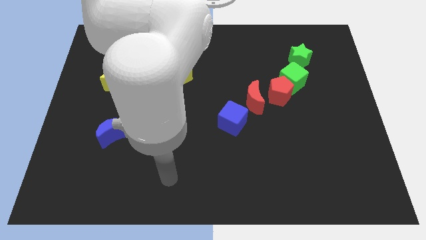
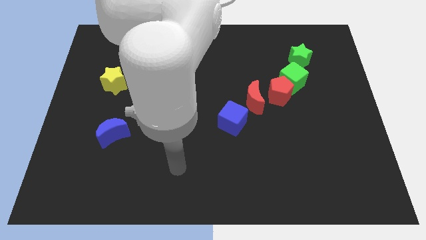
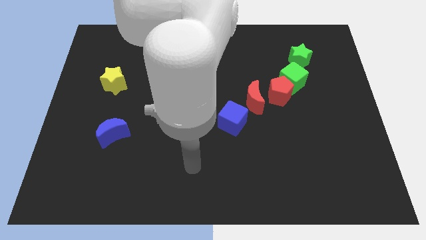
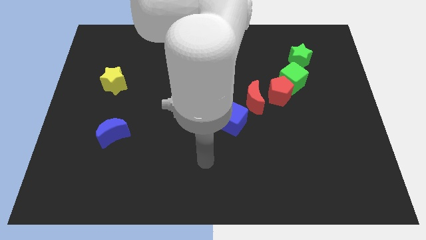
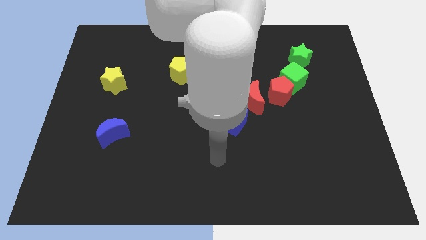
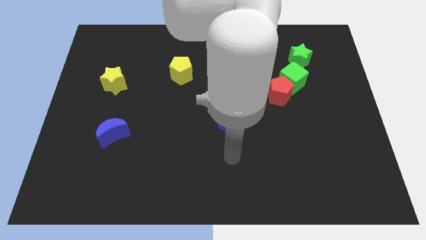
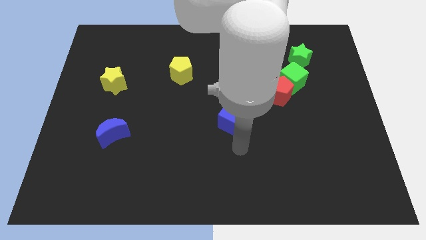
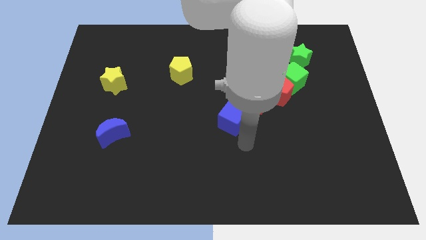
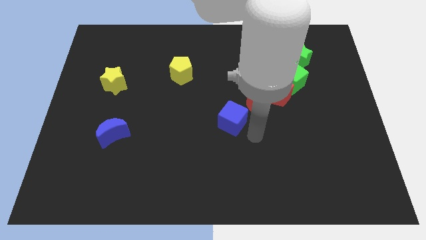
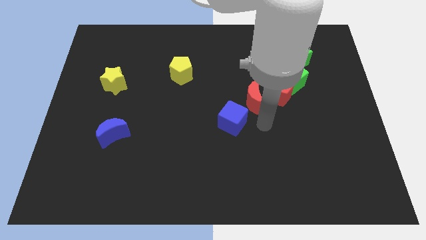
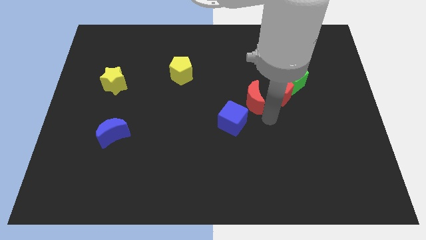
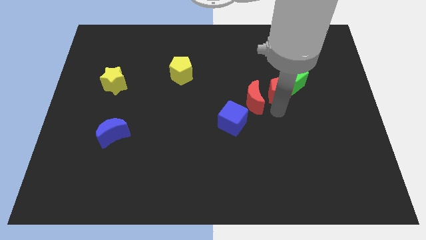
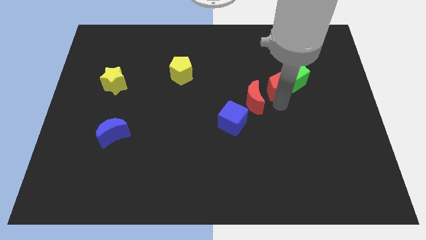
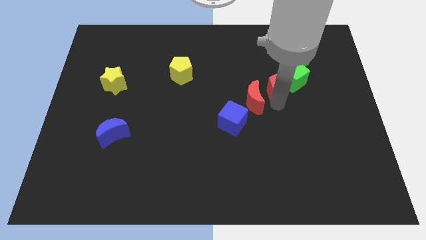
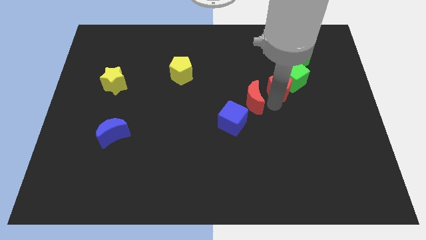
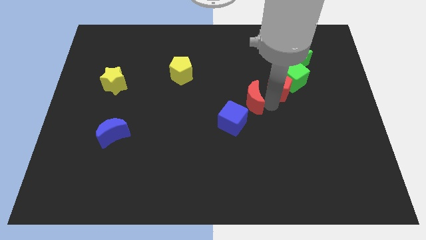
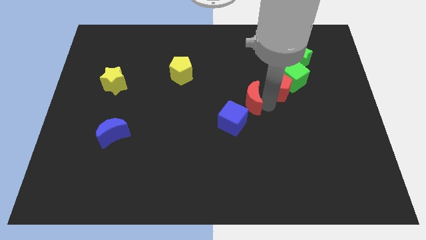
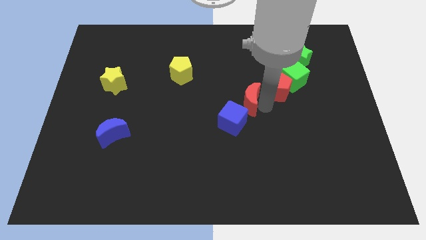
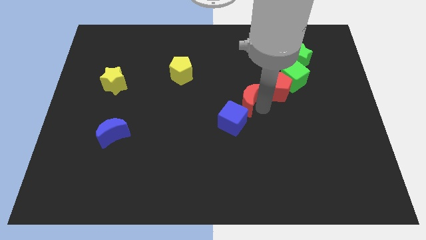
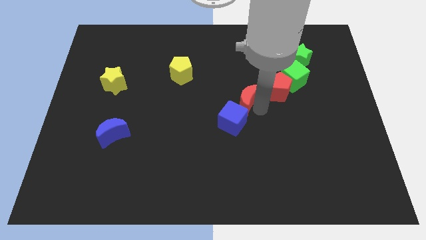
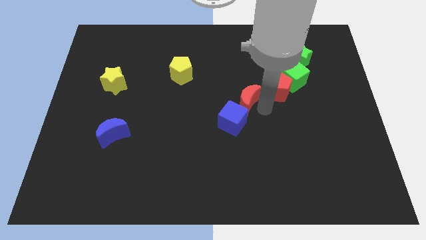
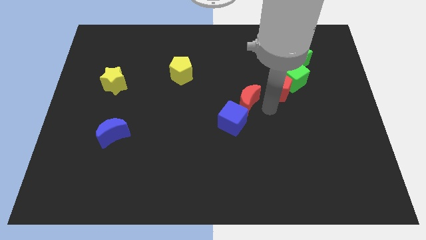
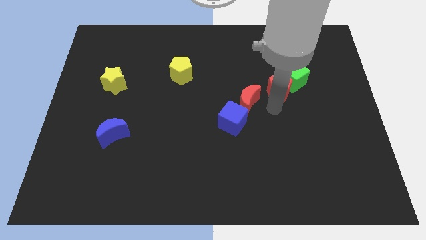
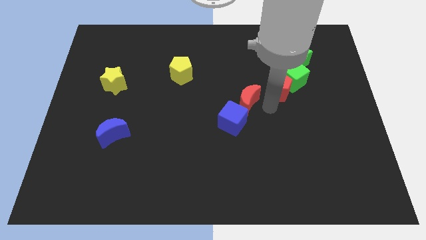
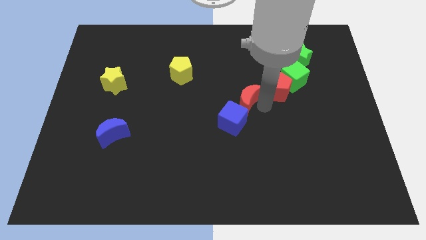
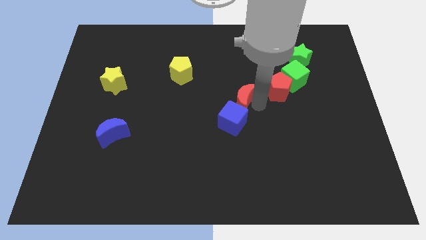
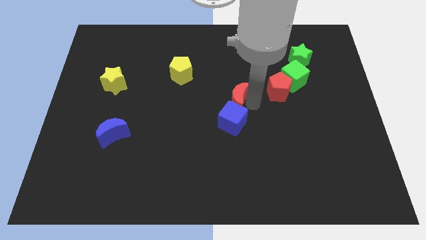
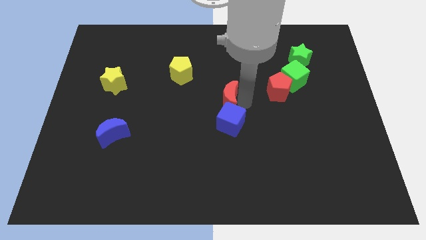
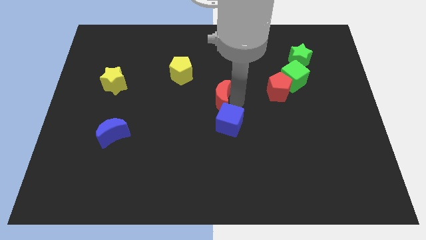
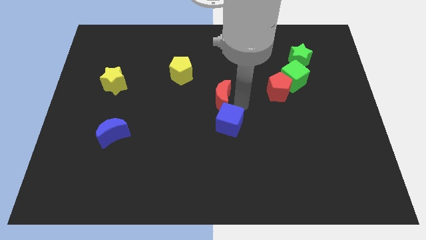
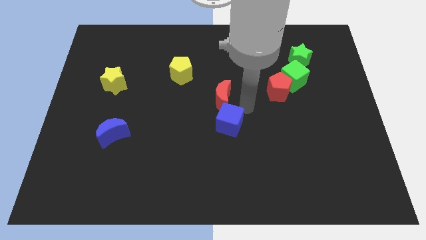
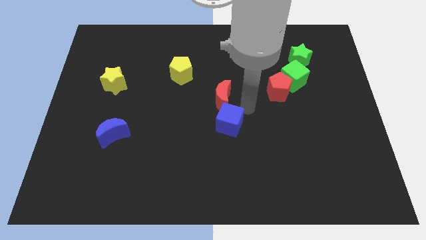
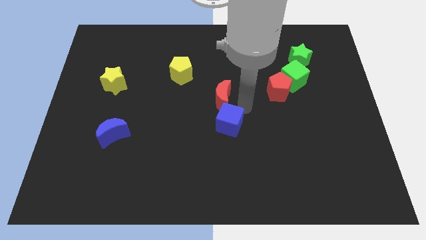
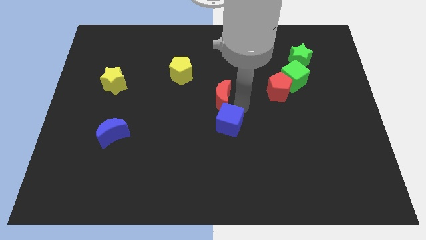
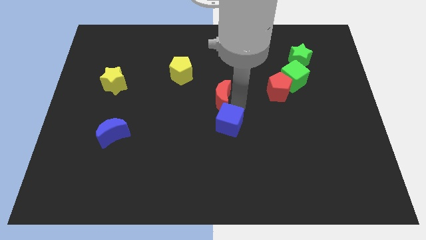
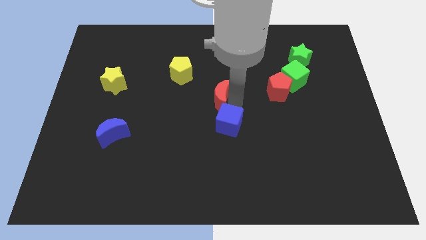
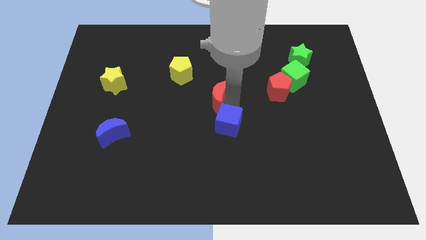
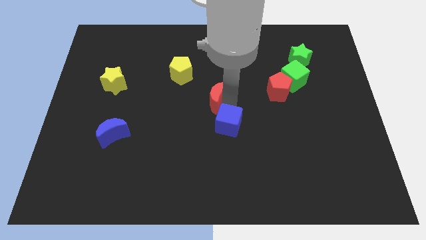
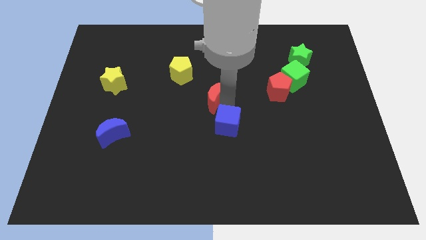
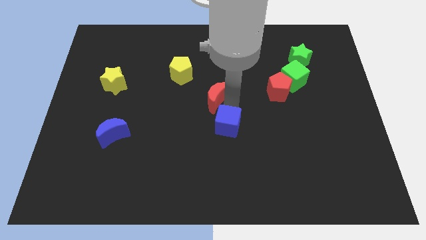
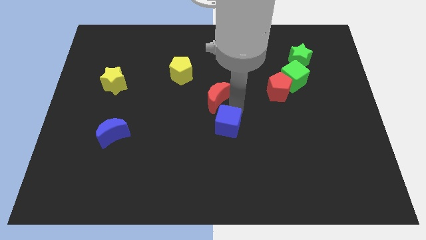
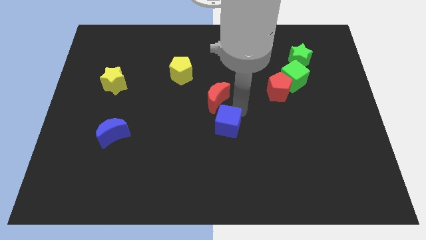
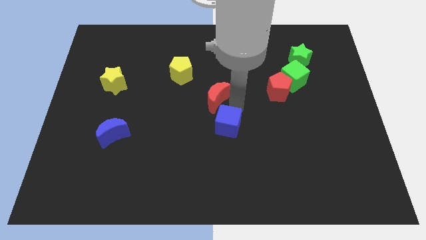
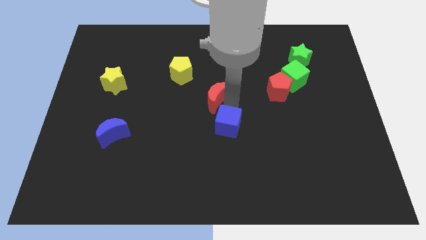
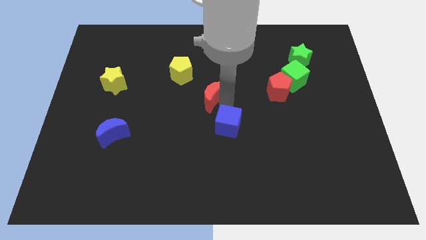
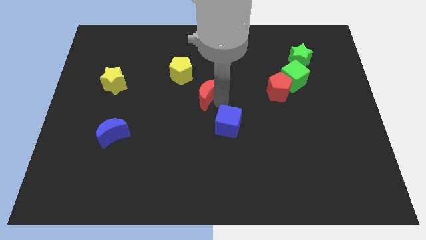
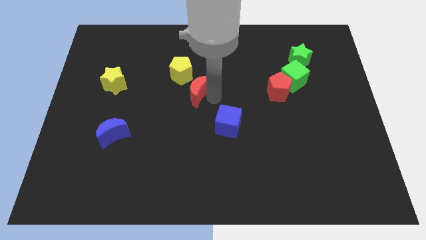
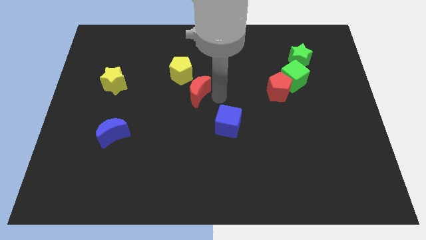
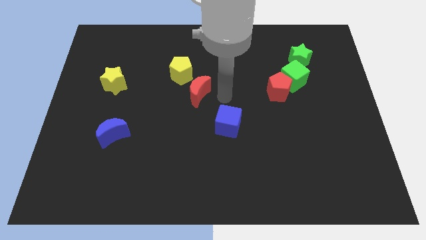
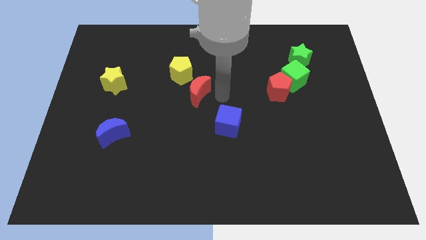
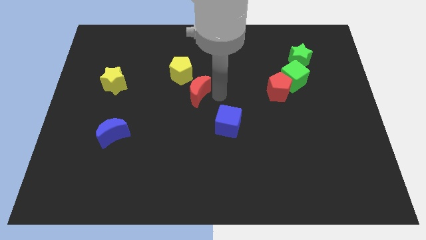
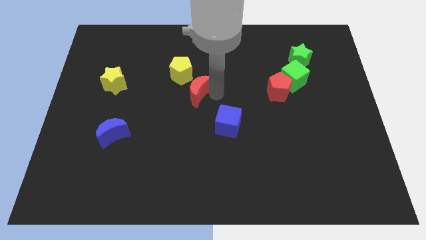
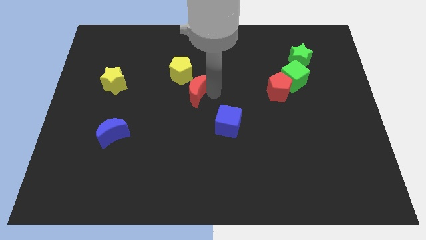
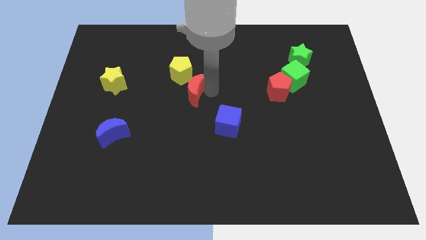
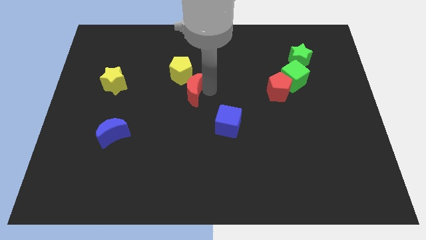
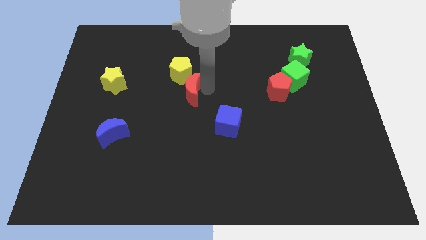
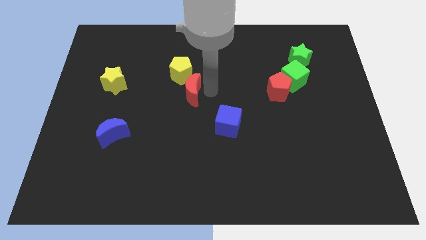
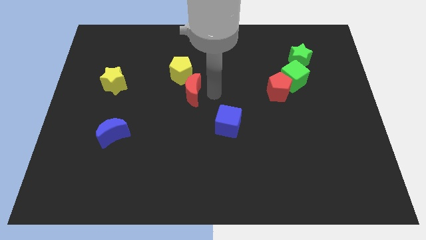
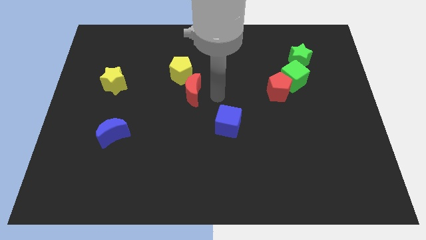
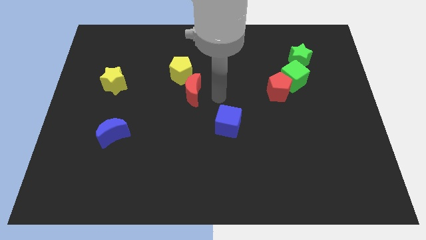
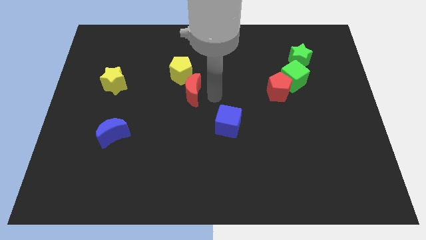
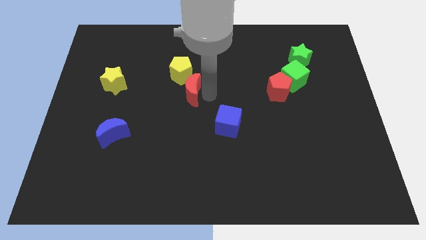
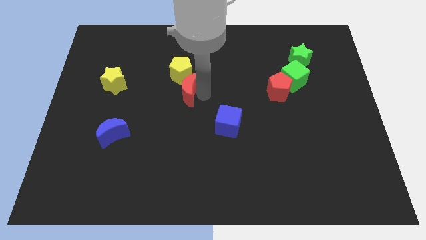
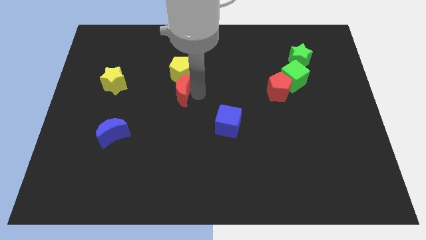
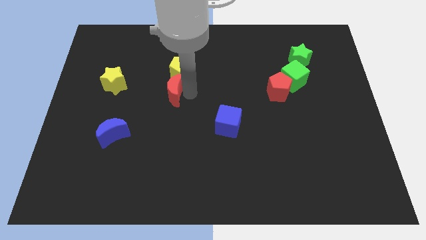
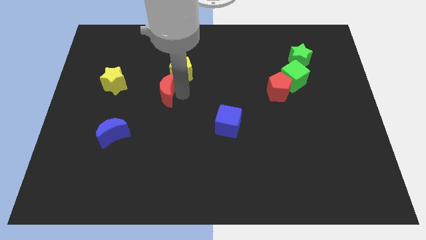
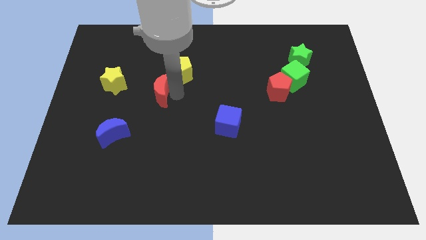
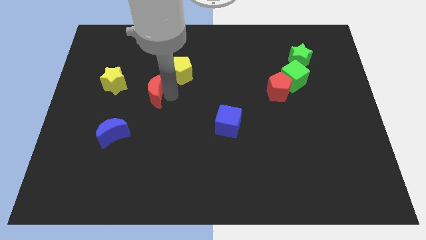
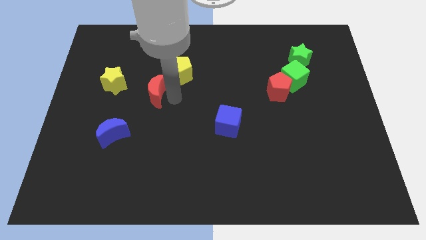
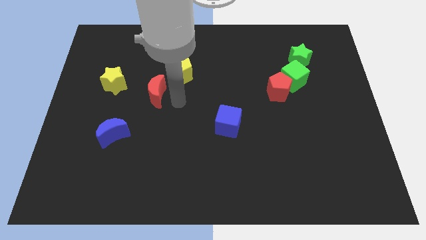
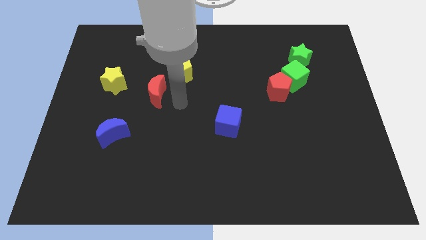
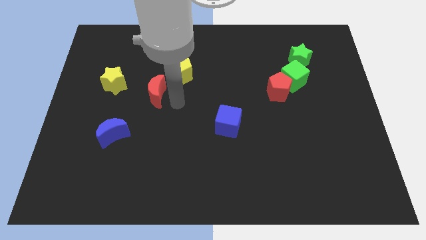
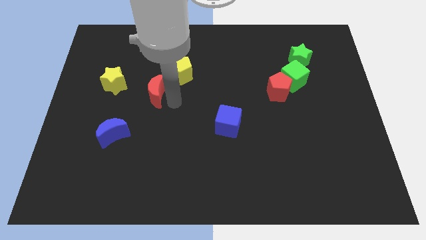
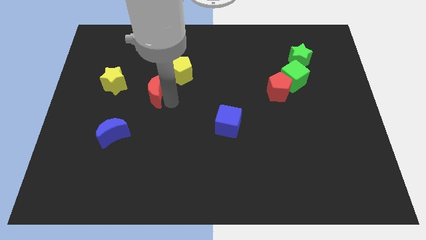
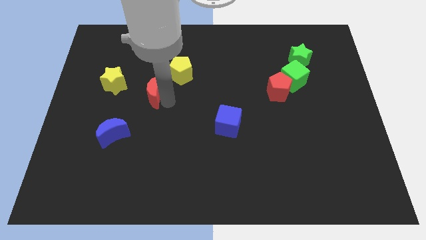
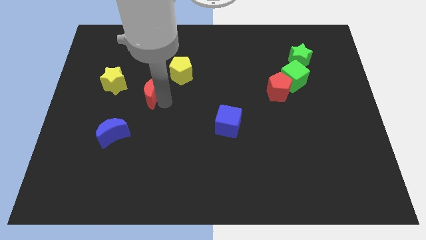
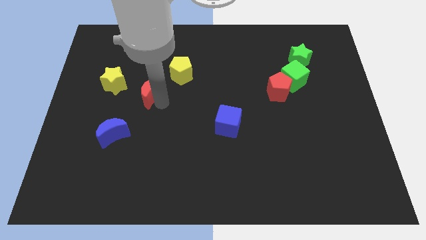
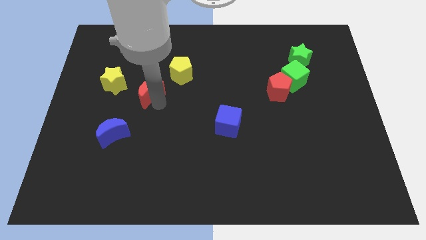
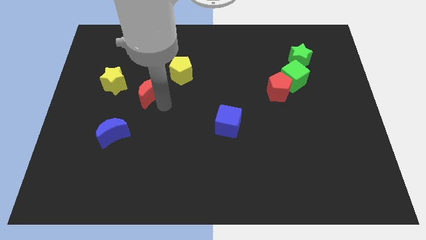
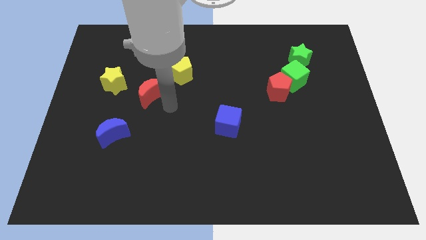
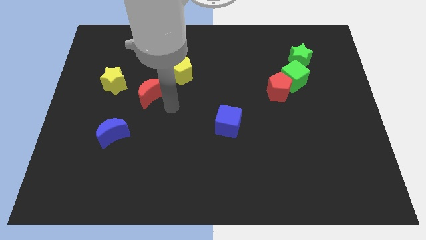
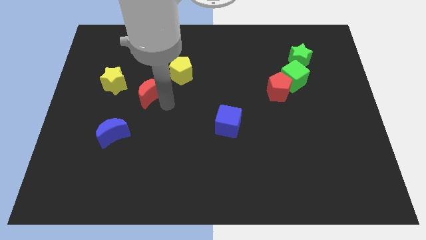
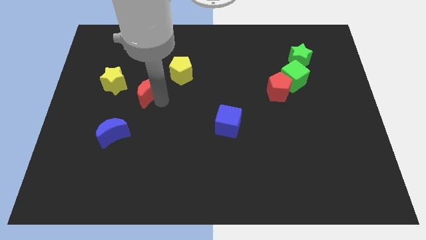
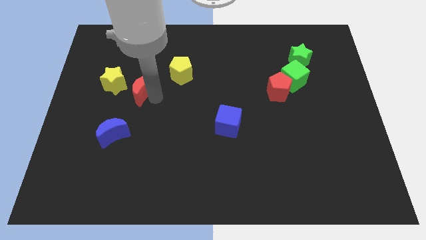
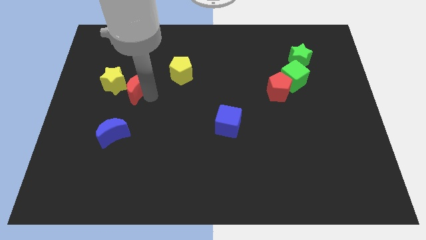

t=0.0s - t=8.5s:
put the red moon close to the yellow star
